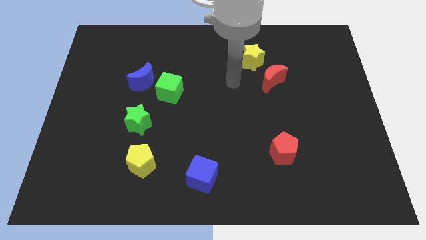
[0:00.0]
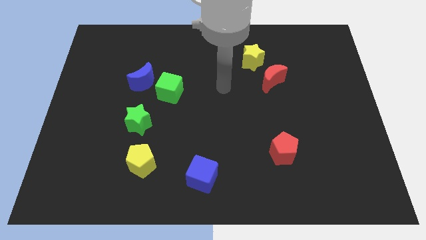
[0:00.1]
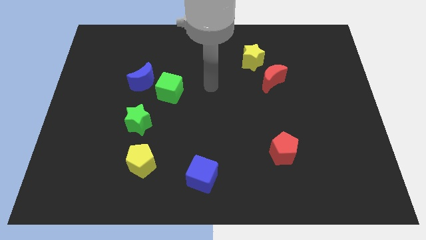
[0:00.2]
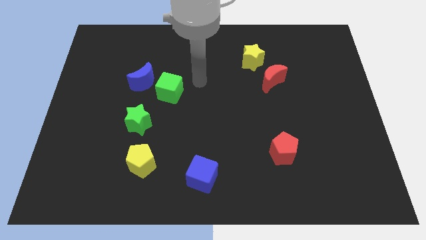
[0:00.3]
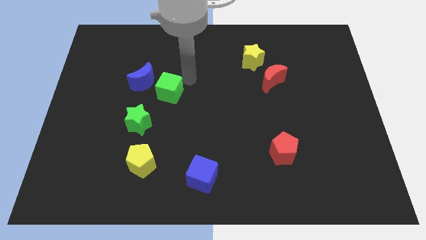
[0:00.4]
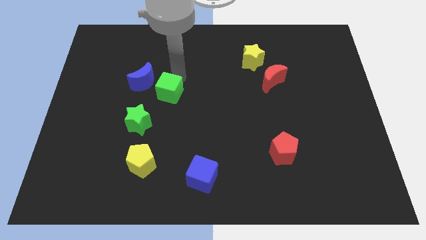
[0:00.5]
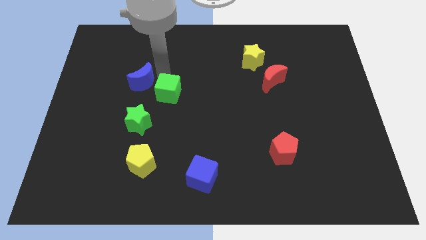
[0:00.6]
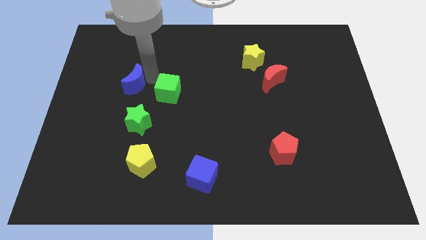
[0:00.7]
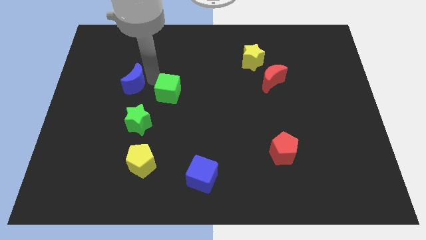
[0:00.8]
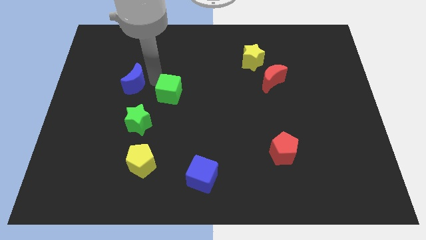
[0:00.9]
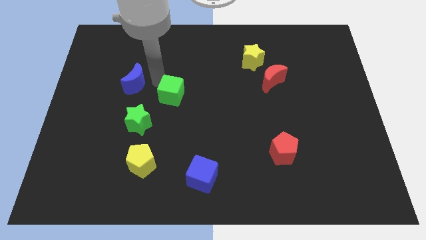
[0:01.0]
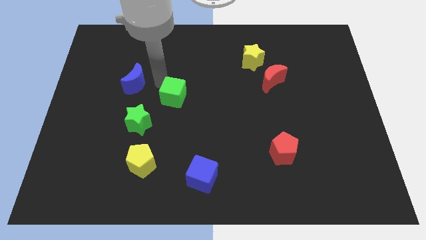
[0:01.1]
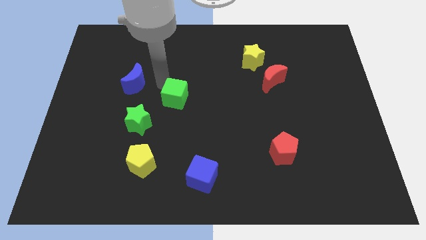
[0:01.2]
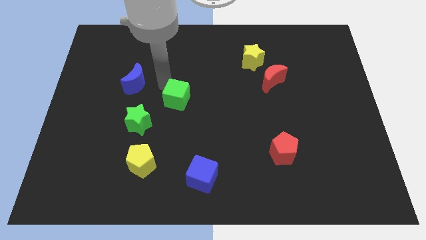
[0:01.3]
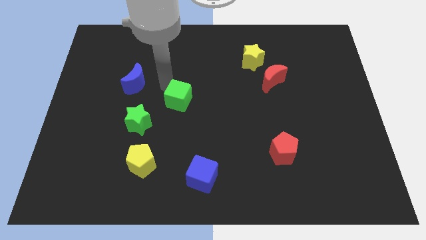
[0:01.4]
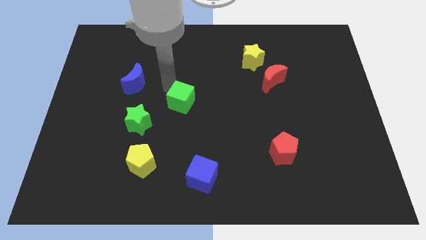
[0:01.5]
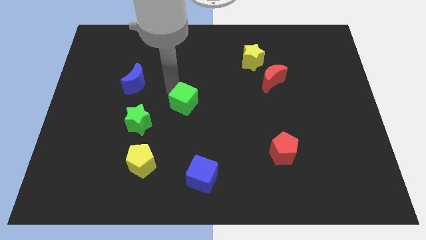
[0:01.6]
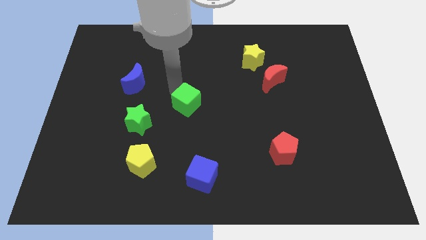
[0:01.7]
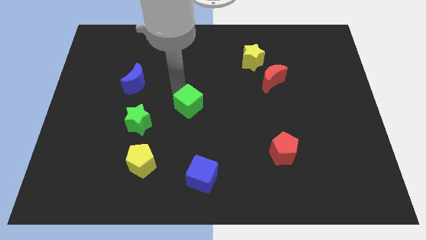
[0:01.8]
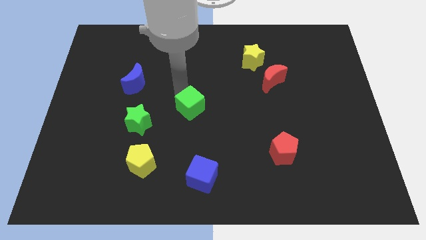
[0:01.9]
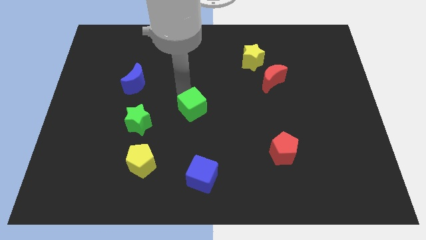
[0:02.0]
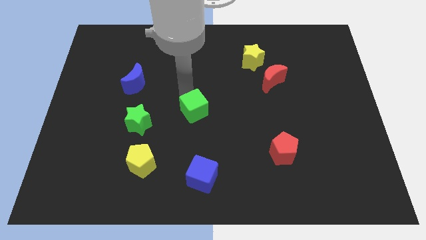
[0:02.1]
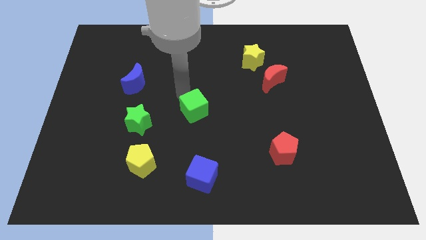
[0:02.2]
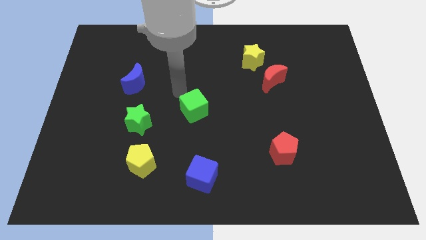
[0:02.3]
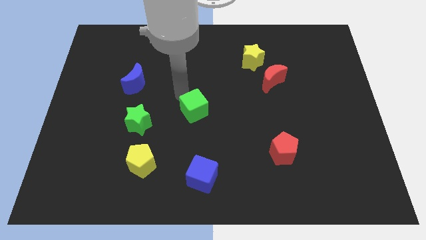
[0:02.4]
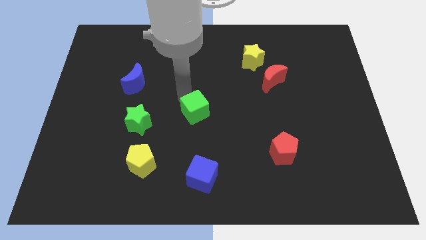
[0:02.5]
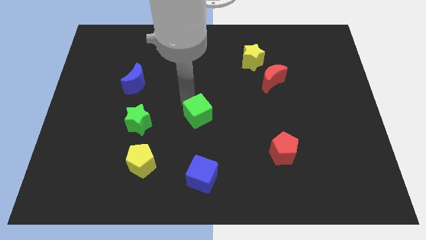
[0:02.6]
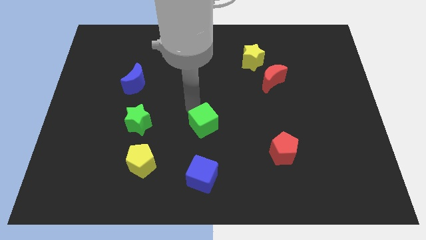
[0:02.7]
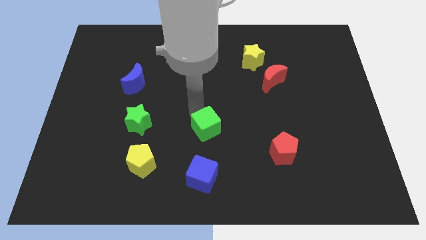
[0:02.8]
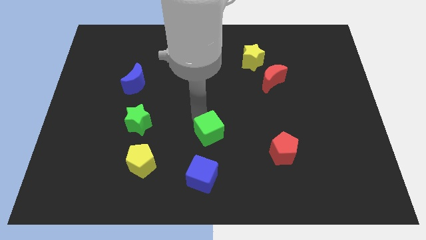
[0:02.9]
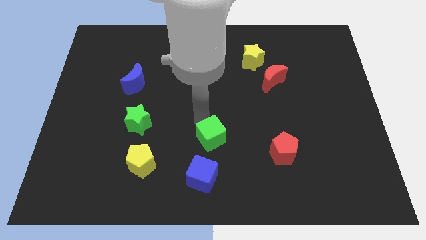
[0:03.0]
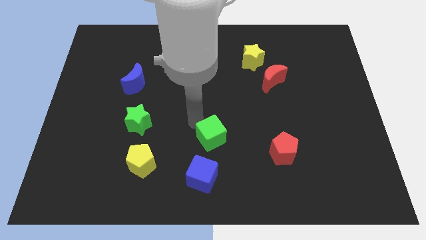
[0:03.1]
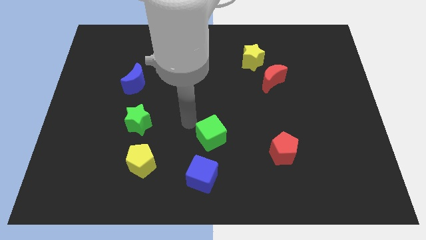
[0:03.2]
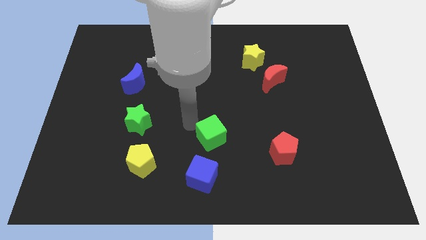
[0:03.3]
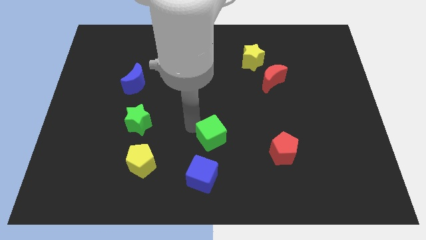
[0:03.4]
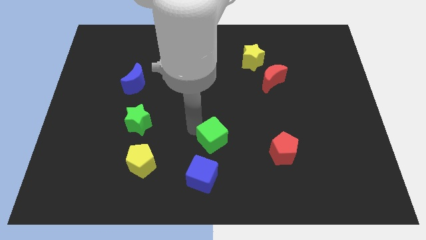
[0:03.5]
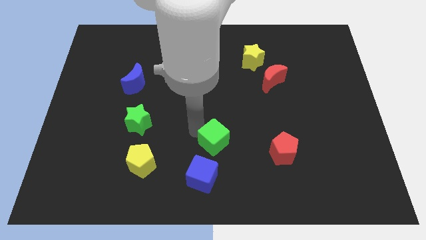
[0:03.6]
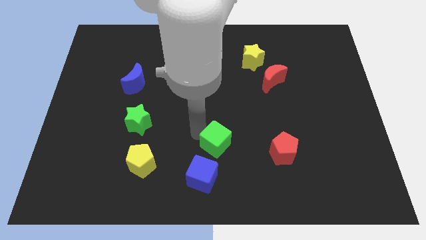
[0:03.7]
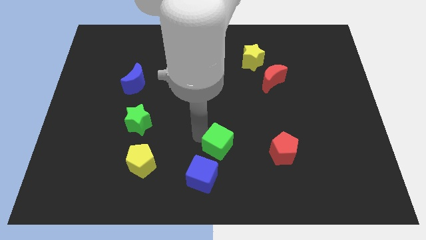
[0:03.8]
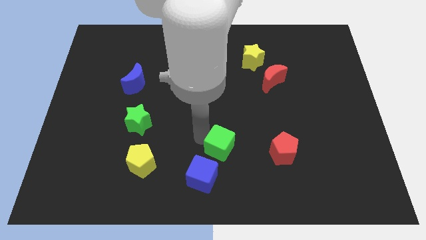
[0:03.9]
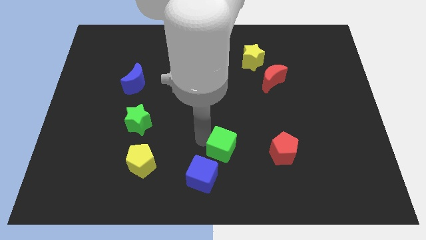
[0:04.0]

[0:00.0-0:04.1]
slide the green cube diagonally down and to the right

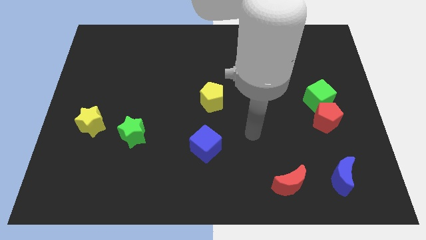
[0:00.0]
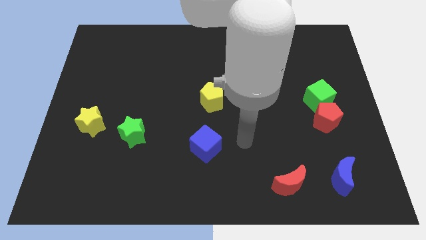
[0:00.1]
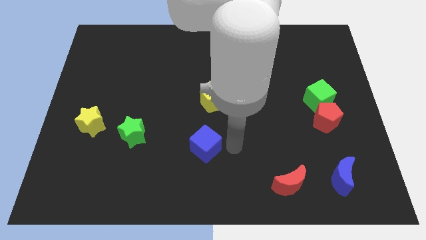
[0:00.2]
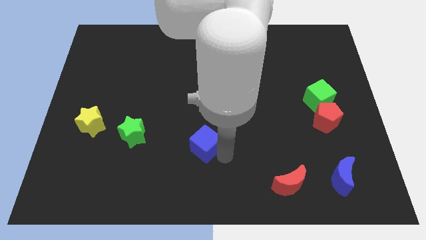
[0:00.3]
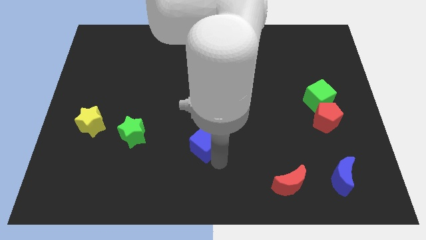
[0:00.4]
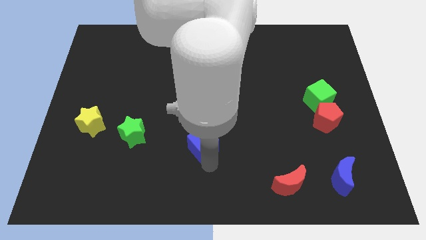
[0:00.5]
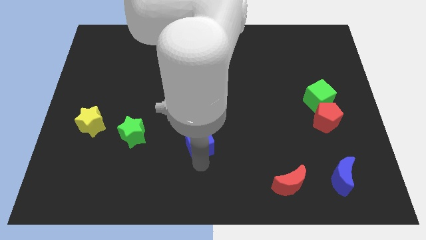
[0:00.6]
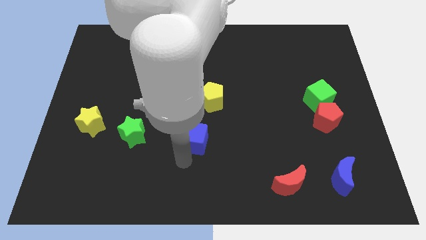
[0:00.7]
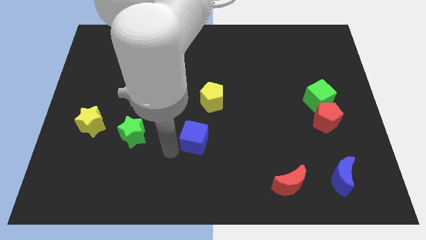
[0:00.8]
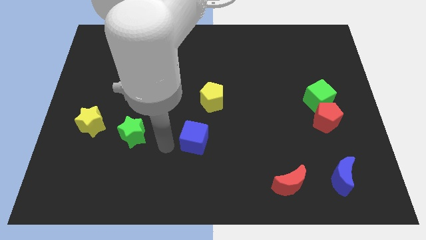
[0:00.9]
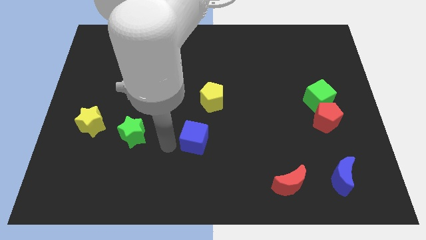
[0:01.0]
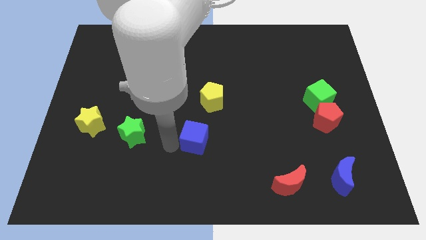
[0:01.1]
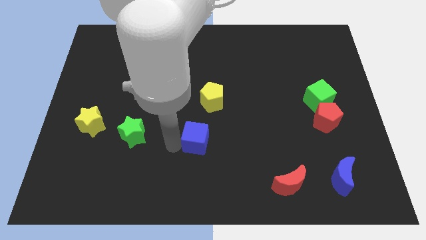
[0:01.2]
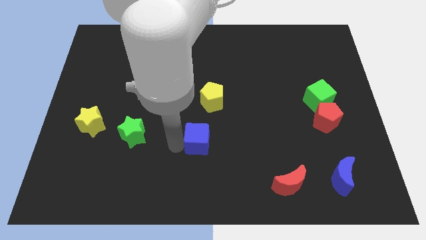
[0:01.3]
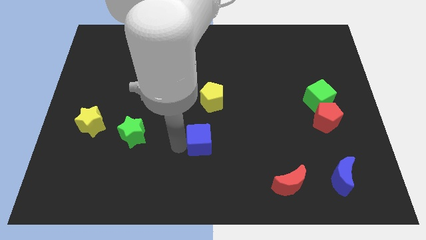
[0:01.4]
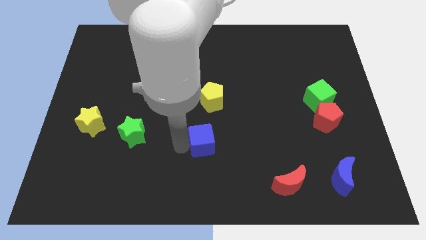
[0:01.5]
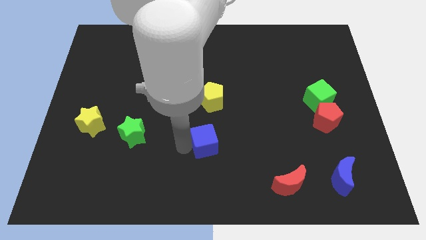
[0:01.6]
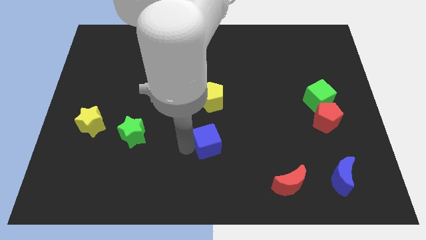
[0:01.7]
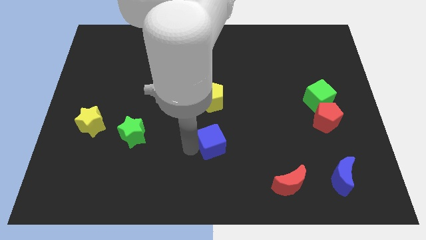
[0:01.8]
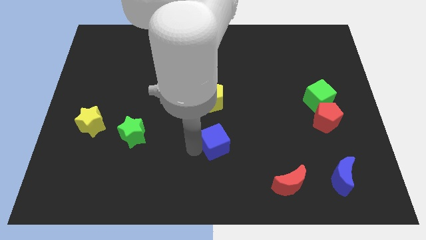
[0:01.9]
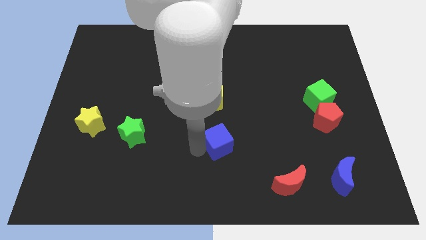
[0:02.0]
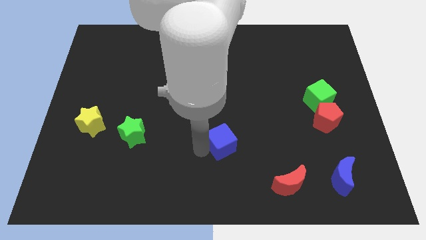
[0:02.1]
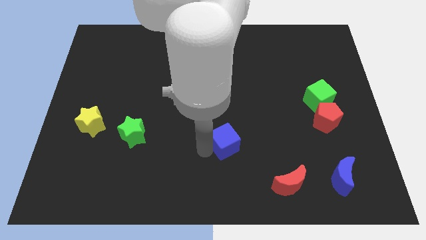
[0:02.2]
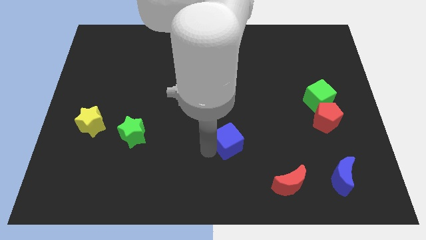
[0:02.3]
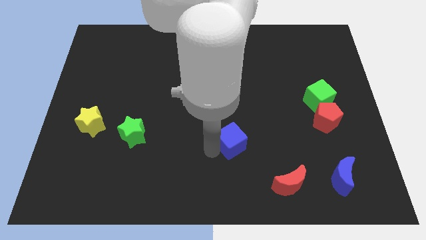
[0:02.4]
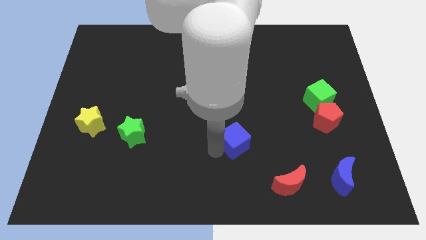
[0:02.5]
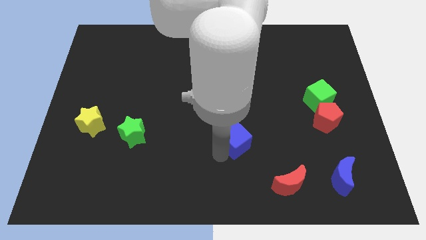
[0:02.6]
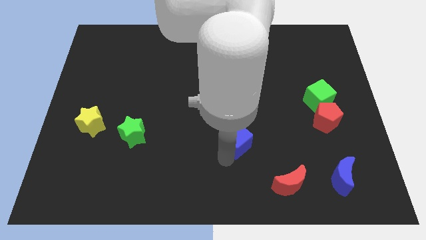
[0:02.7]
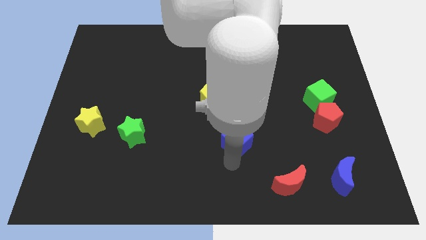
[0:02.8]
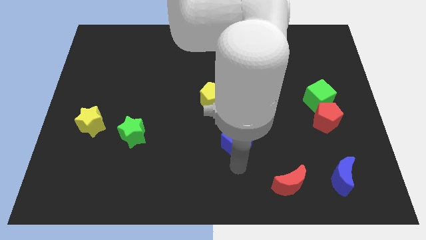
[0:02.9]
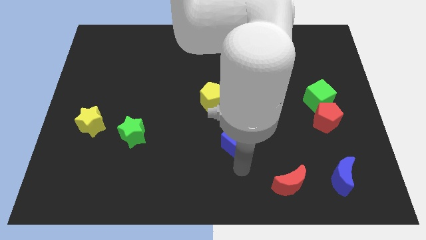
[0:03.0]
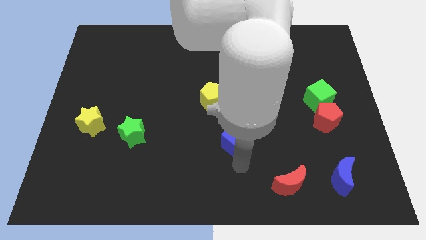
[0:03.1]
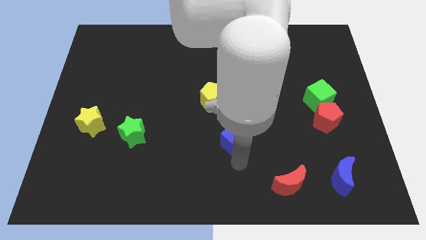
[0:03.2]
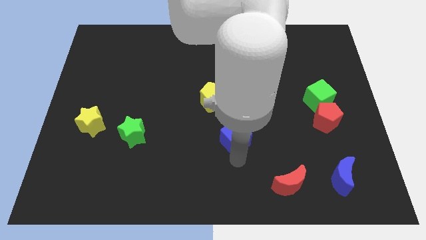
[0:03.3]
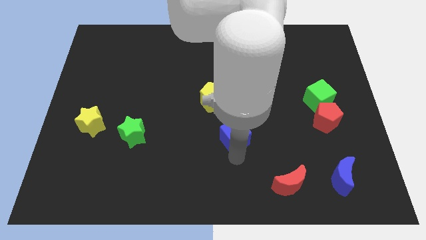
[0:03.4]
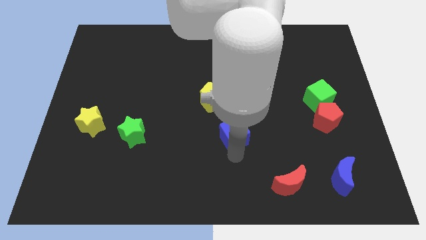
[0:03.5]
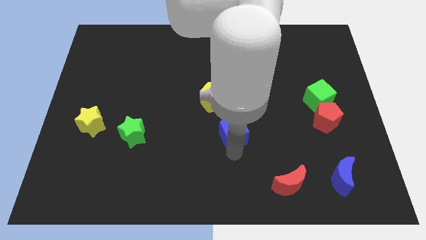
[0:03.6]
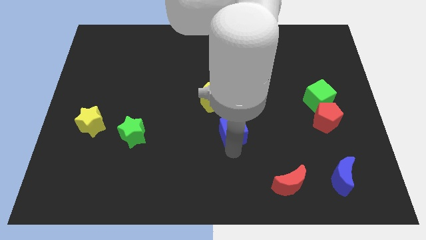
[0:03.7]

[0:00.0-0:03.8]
push the blue cube upwards and to the right somewhat

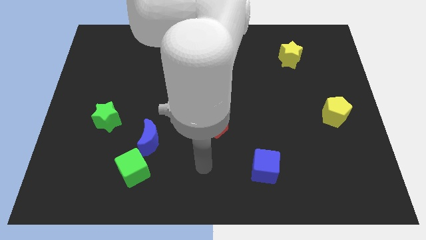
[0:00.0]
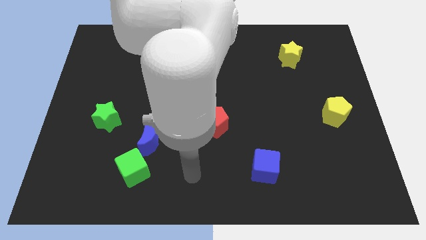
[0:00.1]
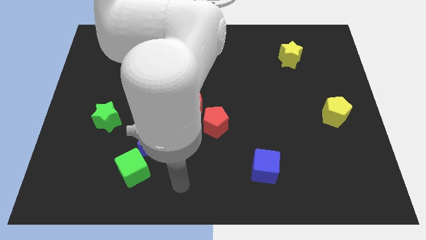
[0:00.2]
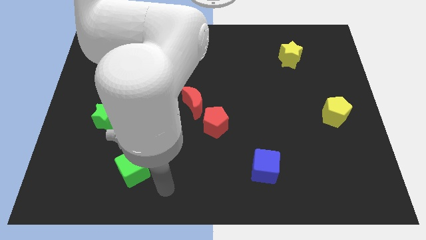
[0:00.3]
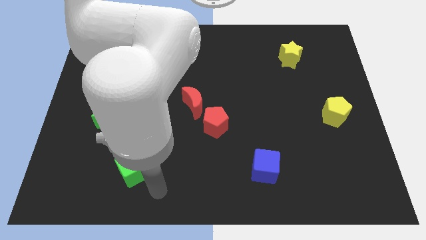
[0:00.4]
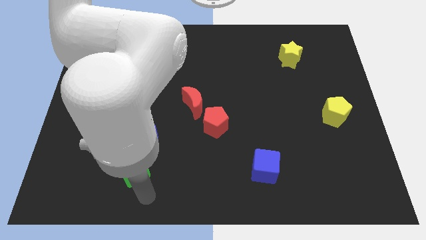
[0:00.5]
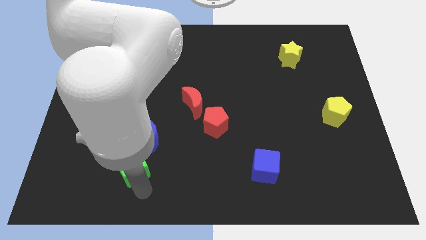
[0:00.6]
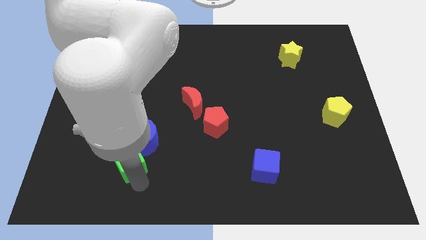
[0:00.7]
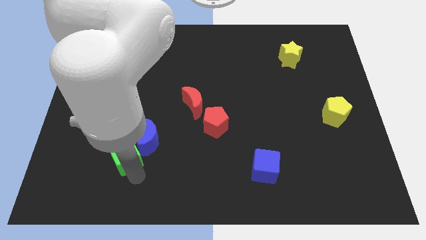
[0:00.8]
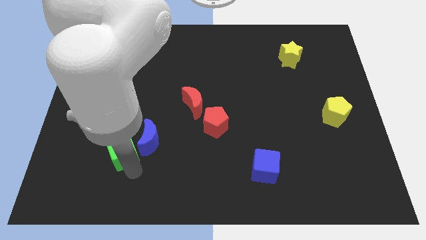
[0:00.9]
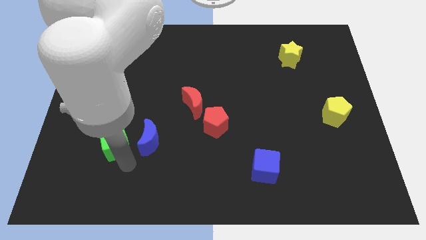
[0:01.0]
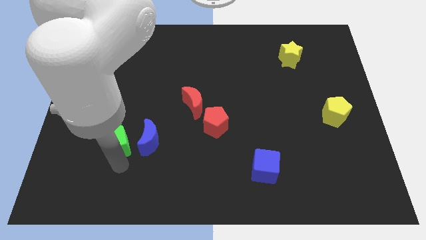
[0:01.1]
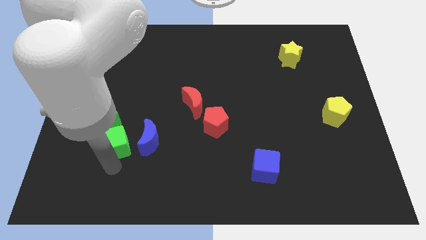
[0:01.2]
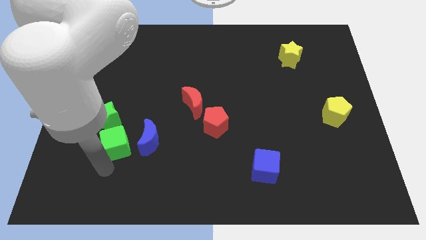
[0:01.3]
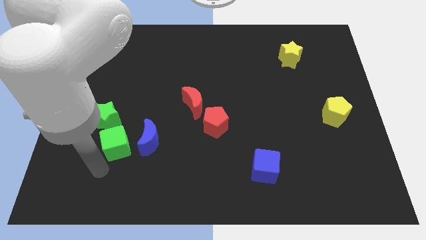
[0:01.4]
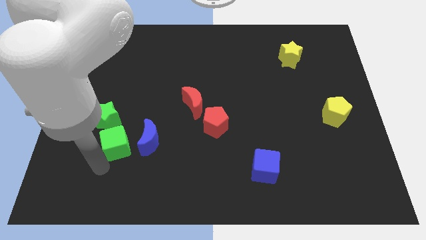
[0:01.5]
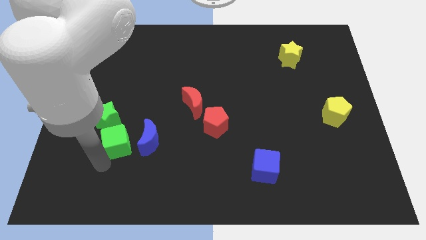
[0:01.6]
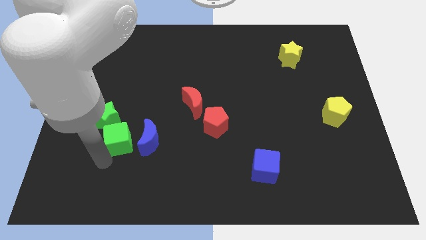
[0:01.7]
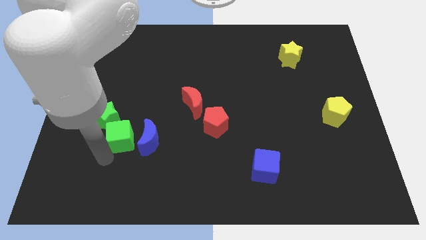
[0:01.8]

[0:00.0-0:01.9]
move the green cube up a little
